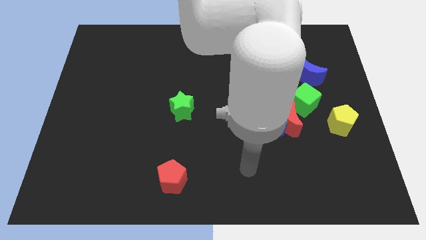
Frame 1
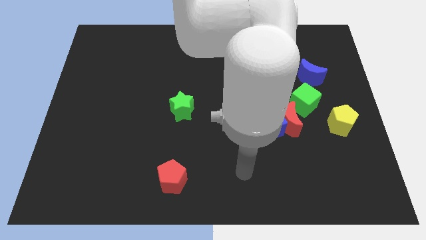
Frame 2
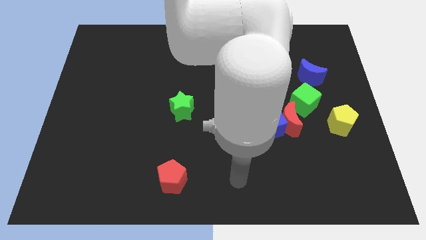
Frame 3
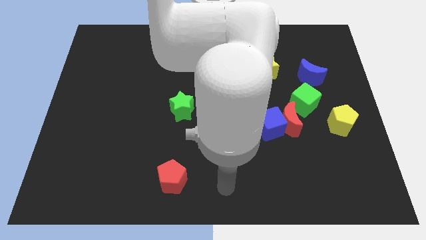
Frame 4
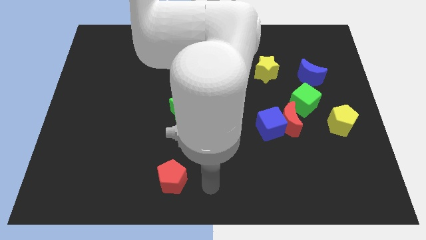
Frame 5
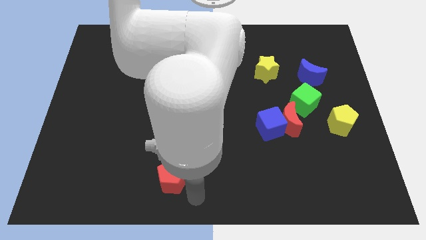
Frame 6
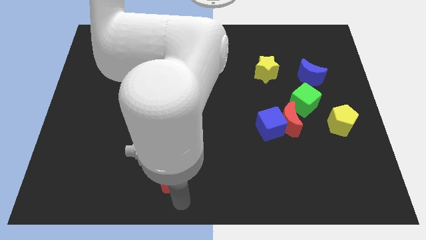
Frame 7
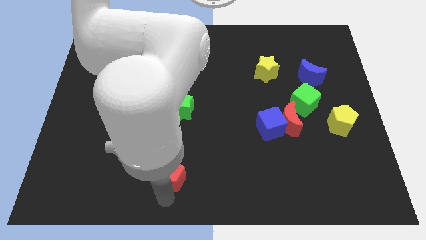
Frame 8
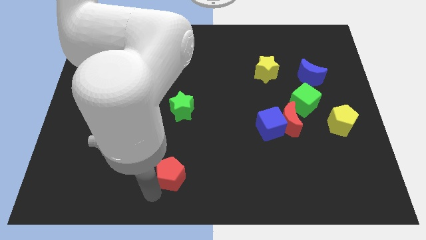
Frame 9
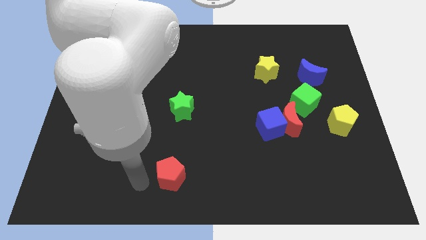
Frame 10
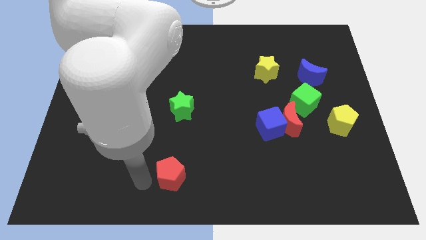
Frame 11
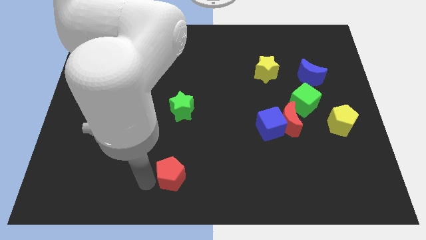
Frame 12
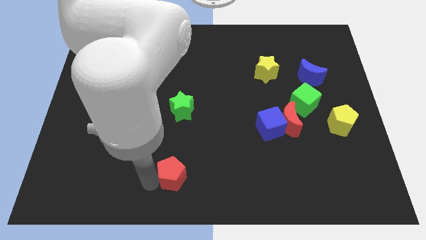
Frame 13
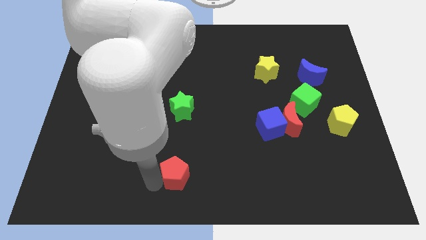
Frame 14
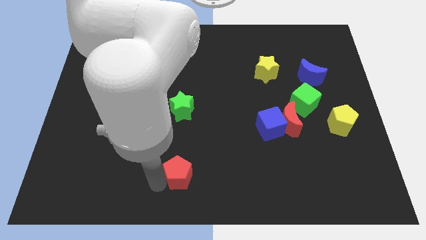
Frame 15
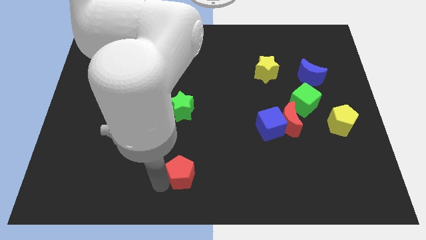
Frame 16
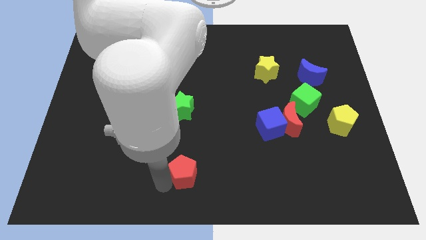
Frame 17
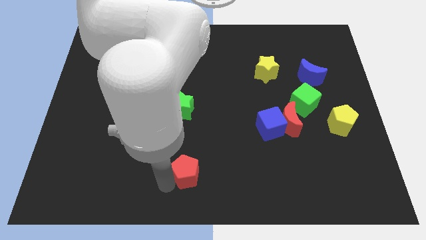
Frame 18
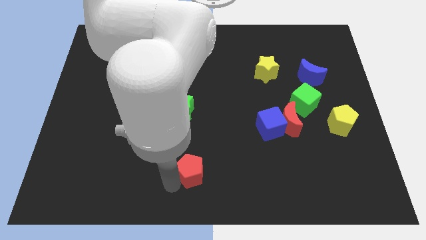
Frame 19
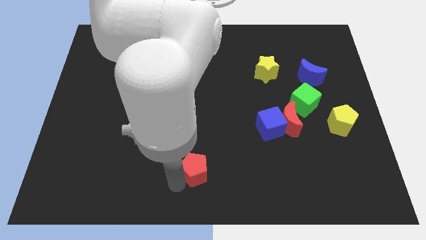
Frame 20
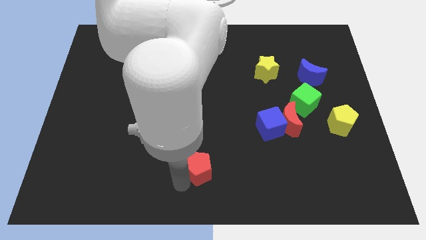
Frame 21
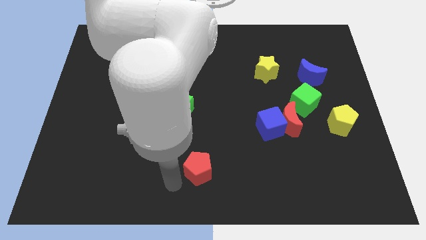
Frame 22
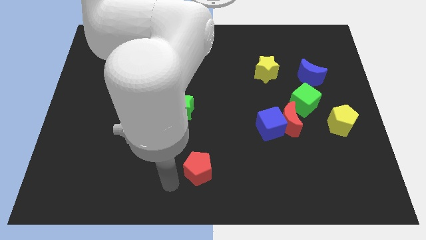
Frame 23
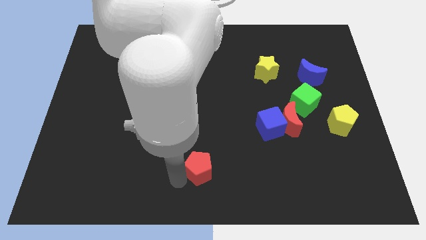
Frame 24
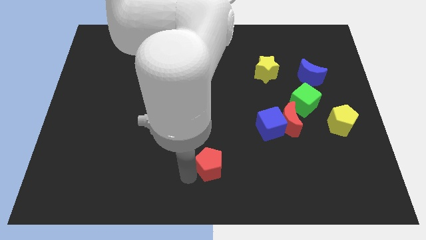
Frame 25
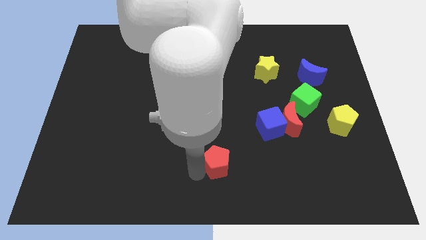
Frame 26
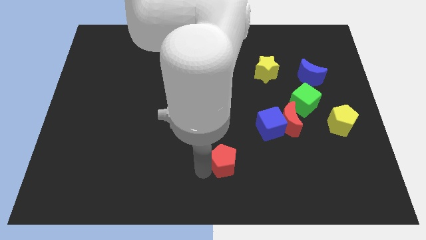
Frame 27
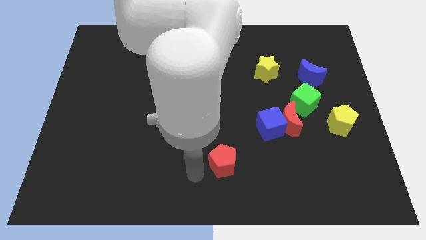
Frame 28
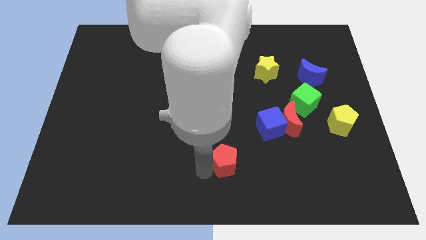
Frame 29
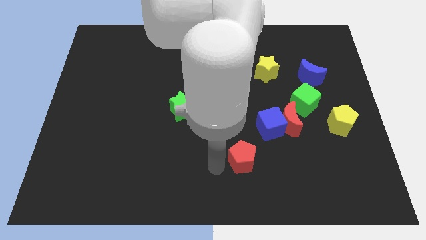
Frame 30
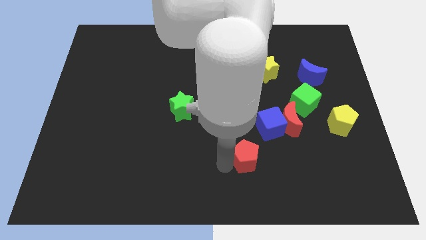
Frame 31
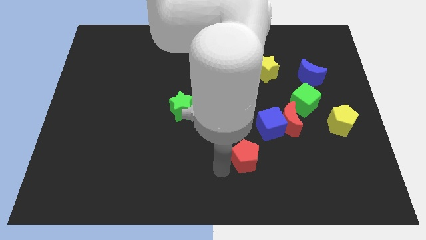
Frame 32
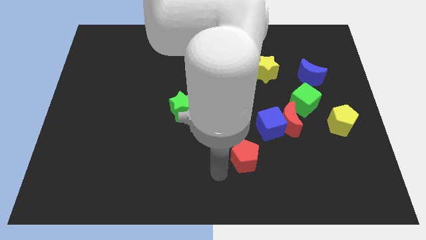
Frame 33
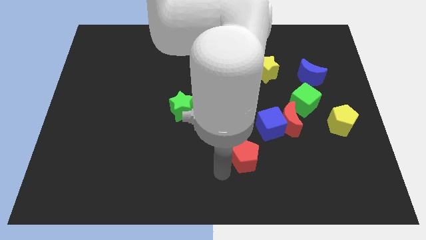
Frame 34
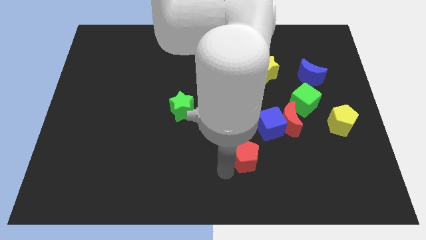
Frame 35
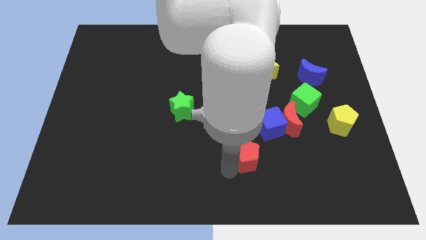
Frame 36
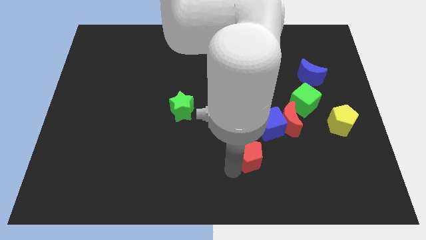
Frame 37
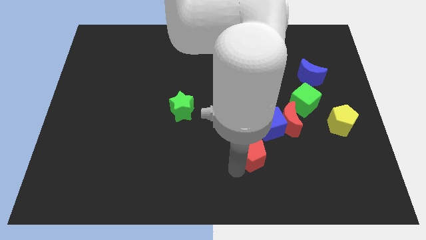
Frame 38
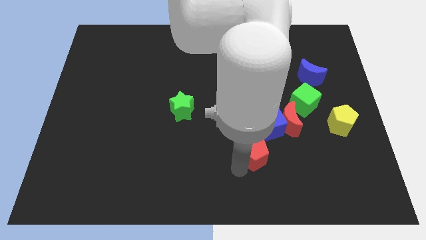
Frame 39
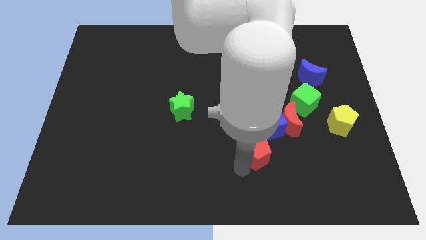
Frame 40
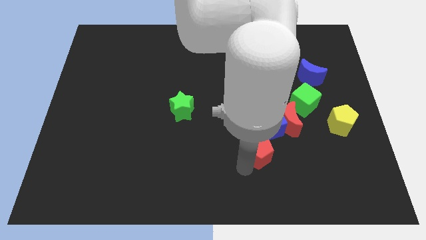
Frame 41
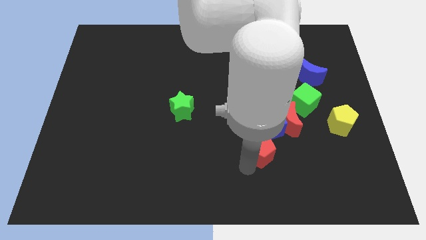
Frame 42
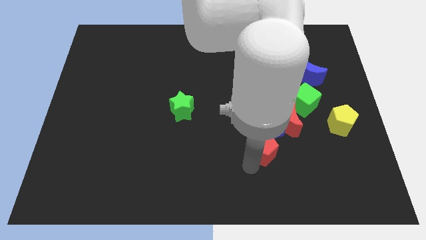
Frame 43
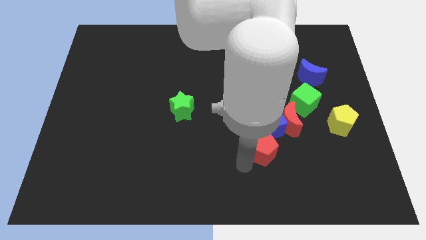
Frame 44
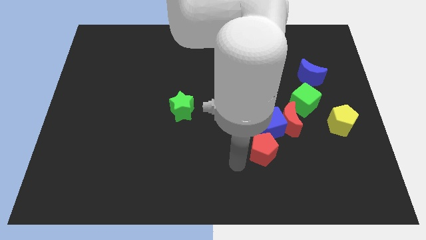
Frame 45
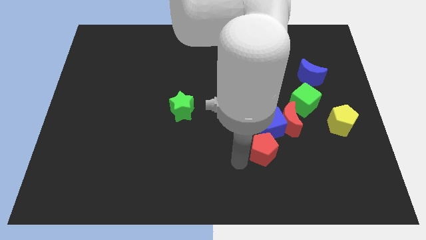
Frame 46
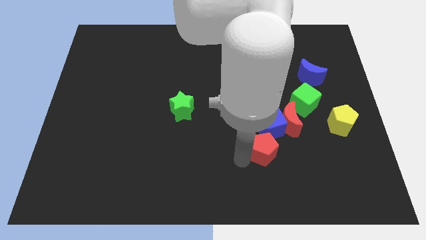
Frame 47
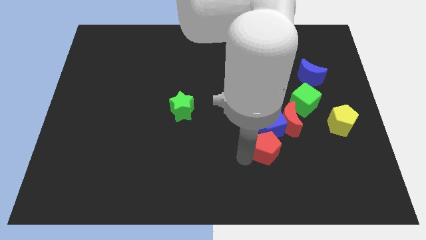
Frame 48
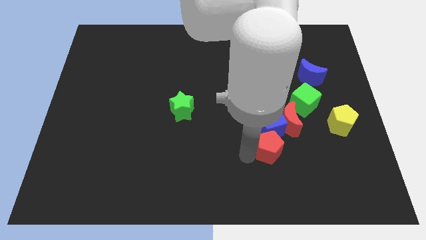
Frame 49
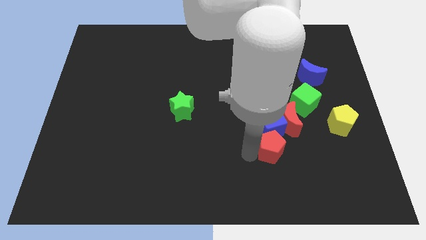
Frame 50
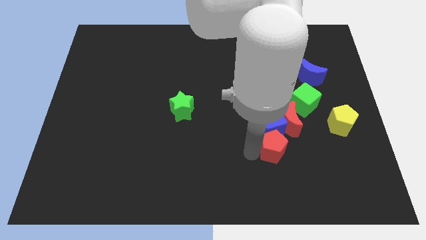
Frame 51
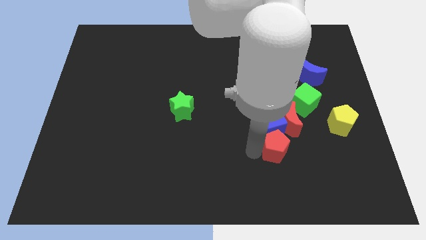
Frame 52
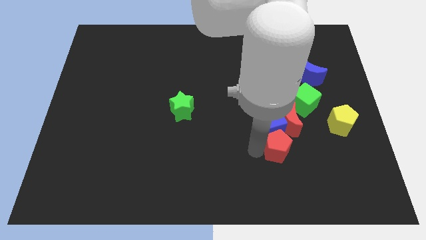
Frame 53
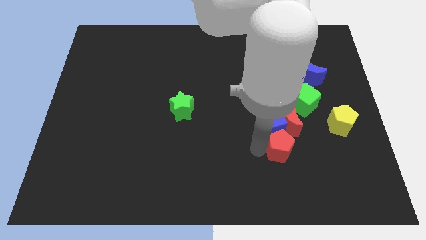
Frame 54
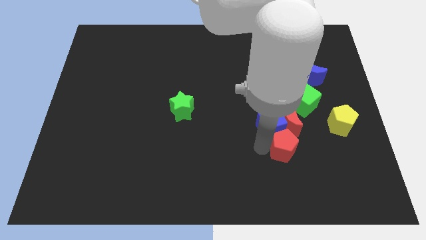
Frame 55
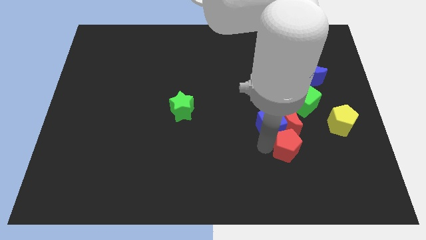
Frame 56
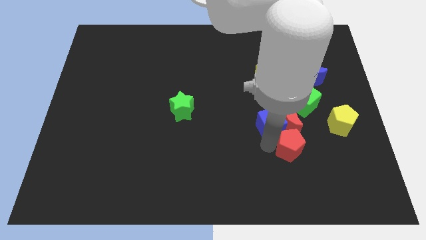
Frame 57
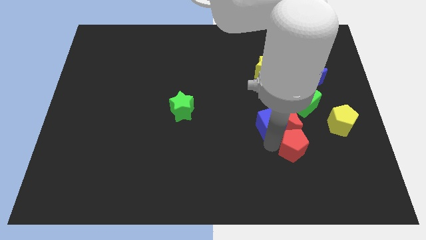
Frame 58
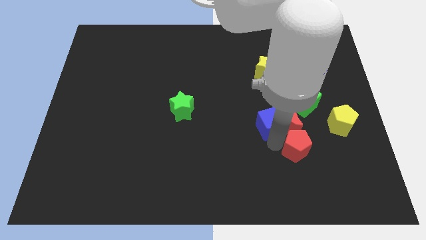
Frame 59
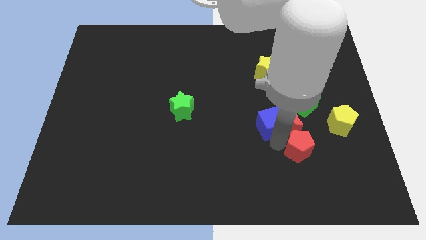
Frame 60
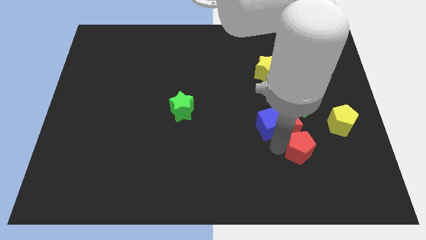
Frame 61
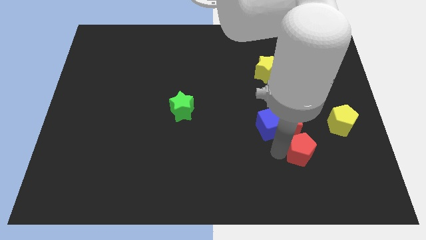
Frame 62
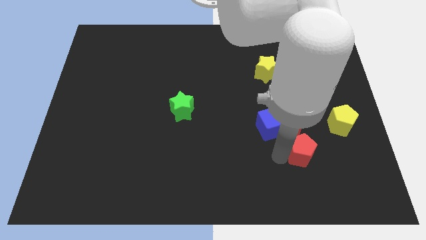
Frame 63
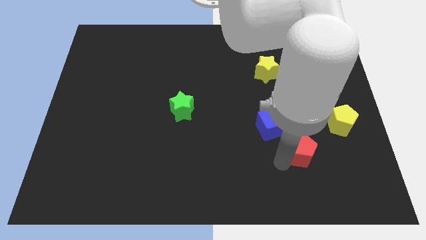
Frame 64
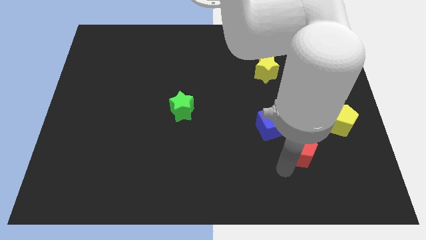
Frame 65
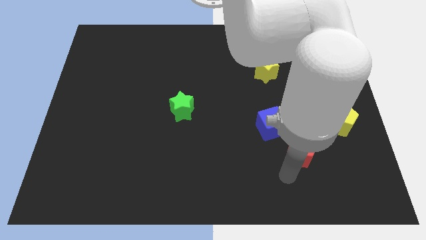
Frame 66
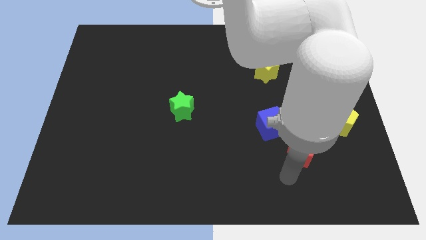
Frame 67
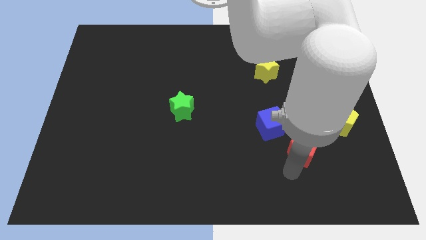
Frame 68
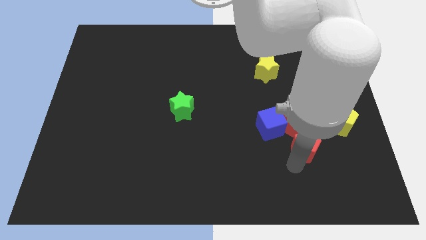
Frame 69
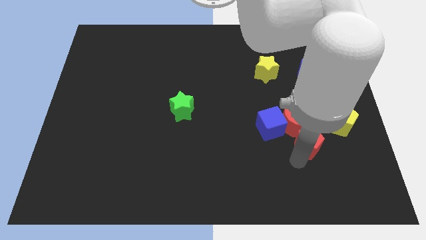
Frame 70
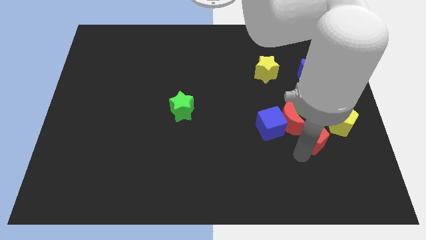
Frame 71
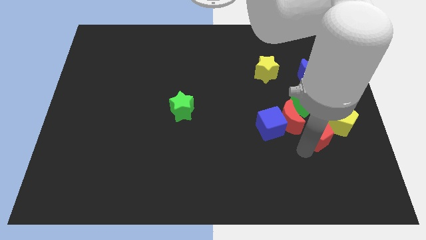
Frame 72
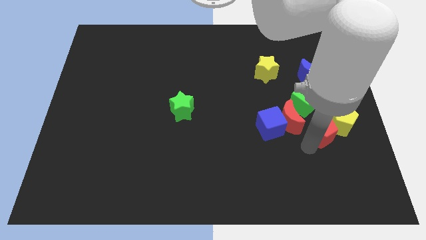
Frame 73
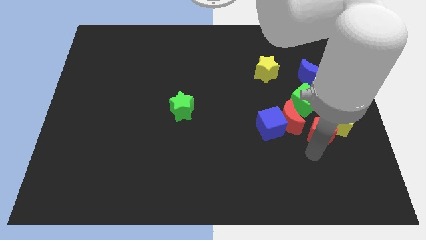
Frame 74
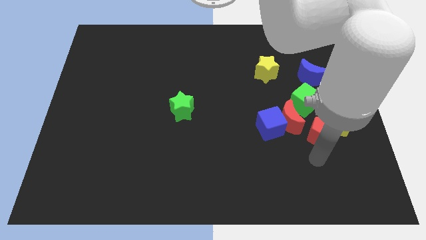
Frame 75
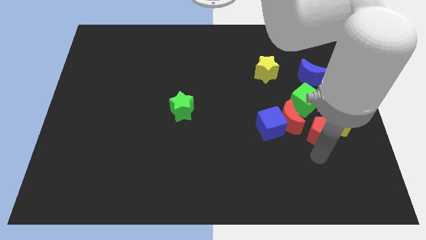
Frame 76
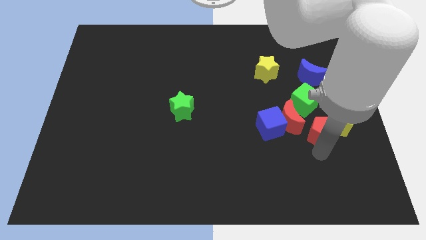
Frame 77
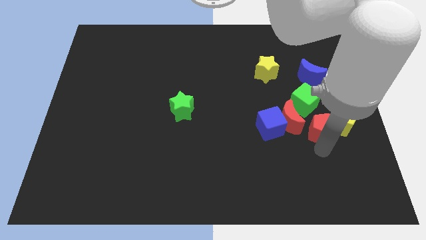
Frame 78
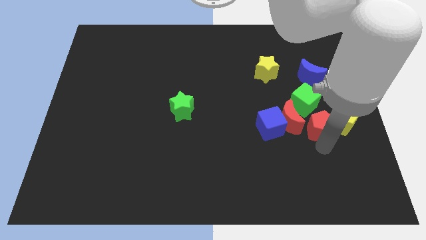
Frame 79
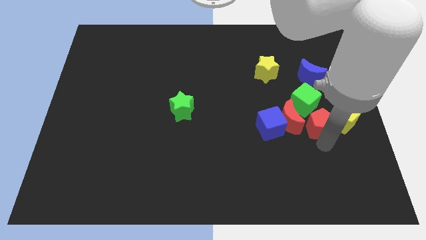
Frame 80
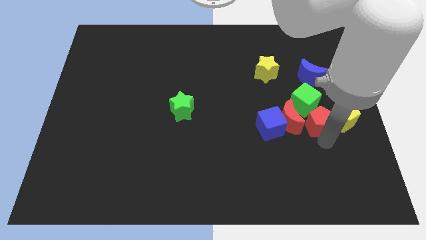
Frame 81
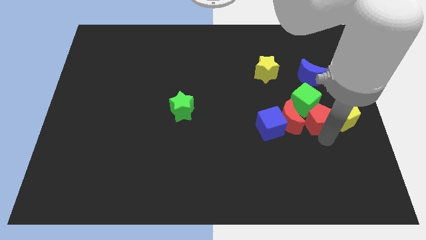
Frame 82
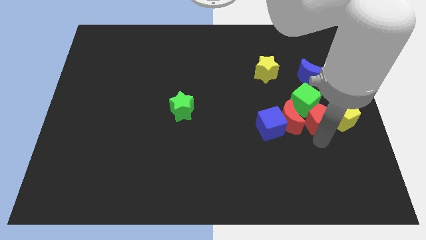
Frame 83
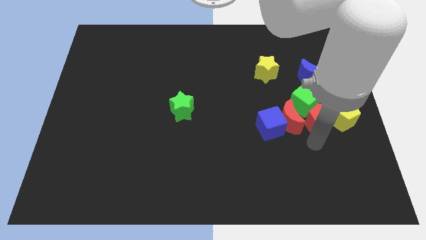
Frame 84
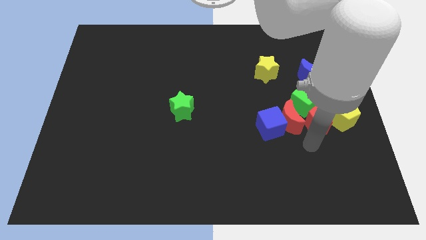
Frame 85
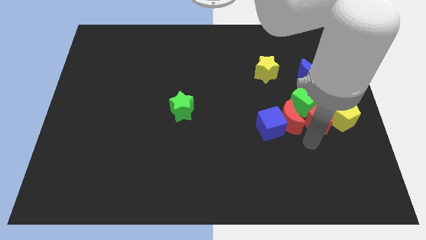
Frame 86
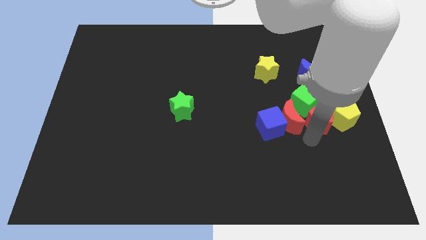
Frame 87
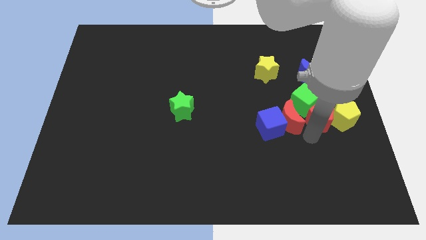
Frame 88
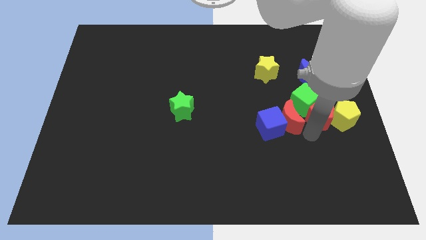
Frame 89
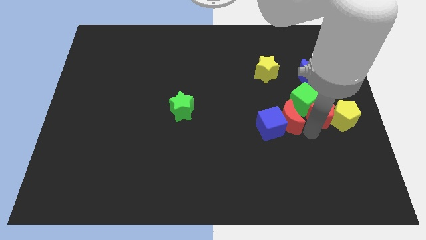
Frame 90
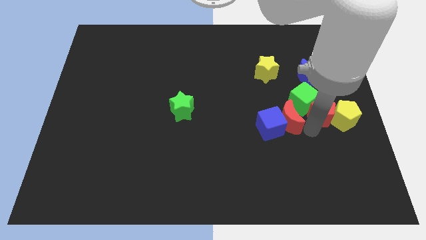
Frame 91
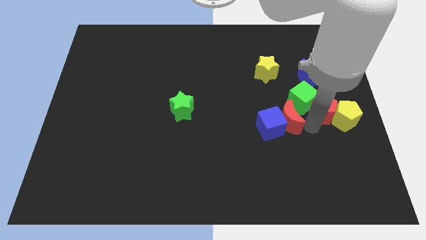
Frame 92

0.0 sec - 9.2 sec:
push the red pentagon to the center right
